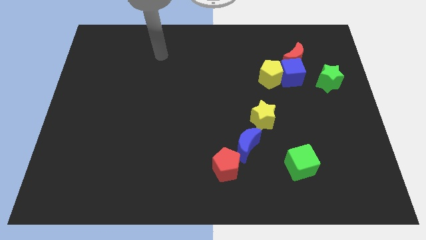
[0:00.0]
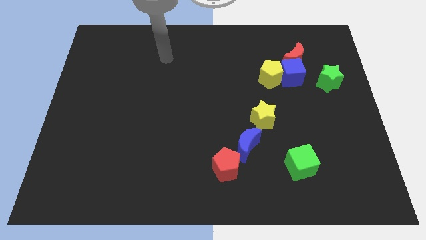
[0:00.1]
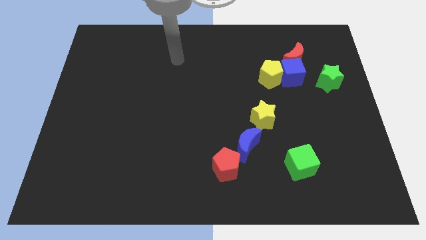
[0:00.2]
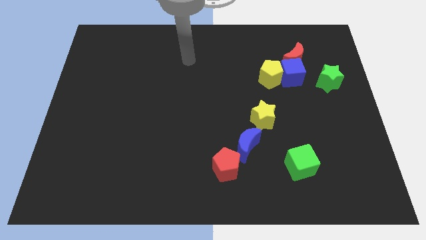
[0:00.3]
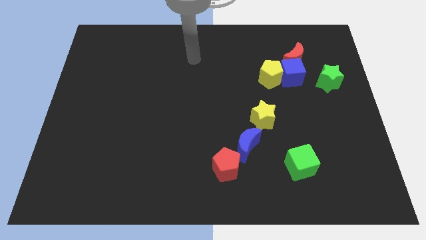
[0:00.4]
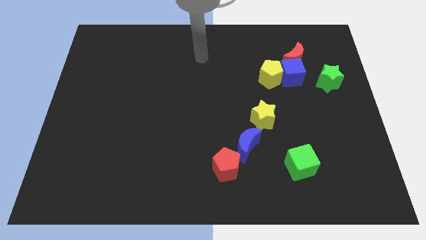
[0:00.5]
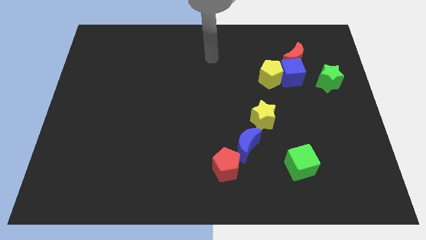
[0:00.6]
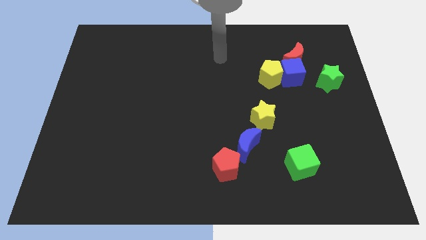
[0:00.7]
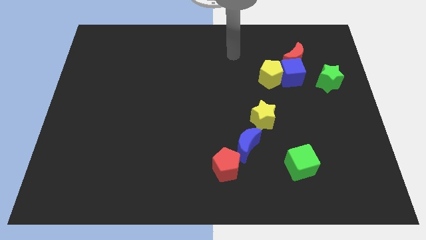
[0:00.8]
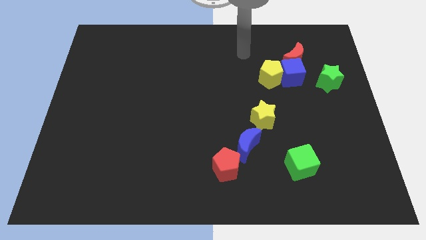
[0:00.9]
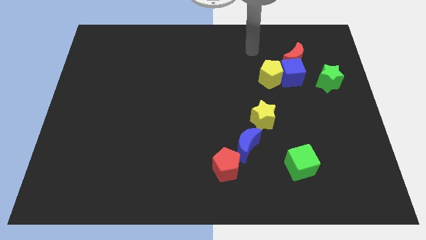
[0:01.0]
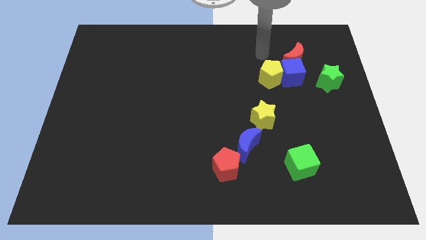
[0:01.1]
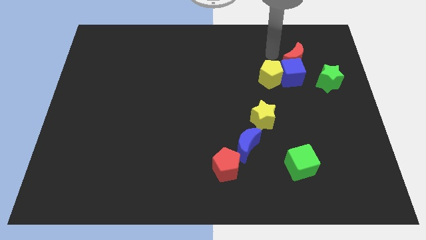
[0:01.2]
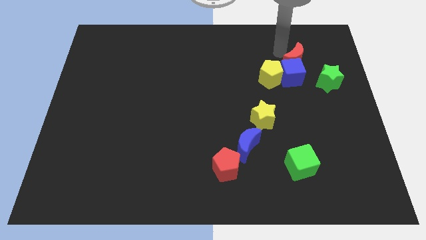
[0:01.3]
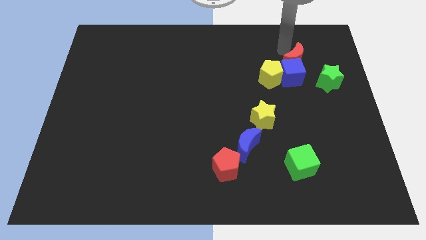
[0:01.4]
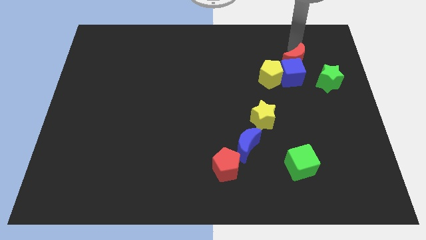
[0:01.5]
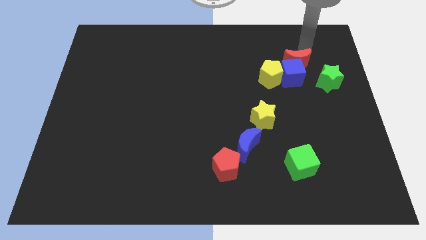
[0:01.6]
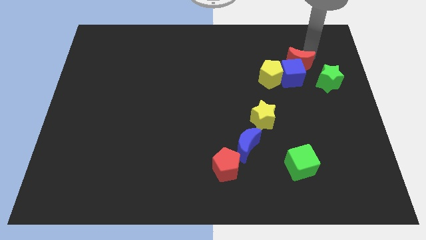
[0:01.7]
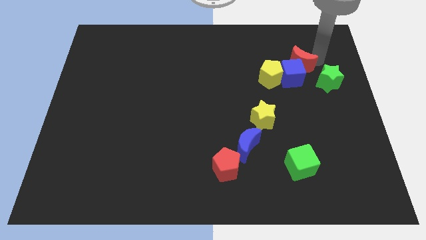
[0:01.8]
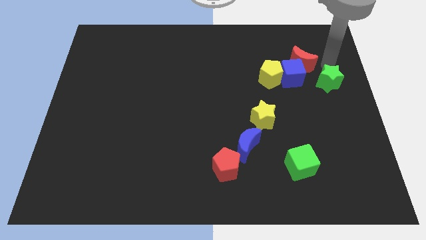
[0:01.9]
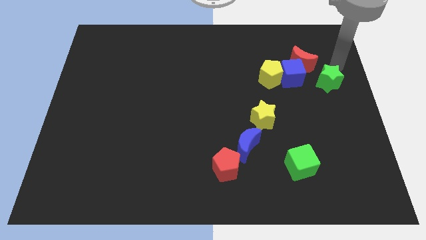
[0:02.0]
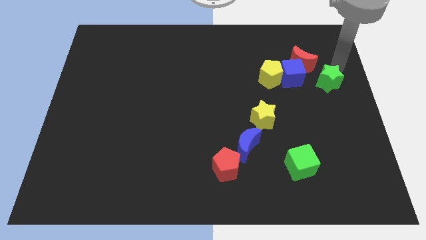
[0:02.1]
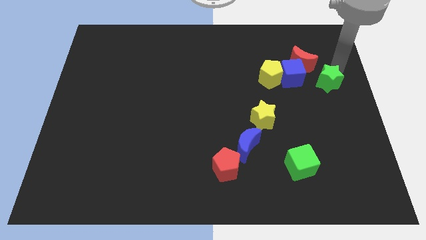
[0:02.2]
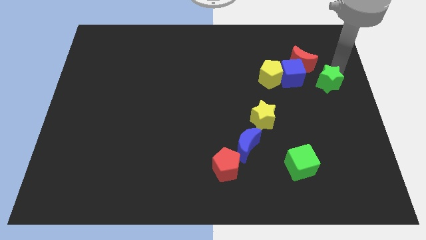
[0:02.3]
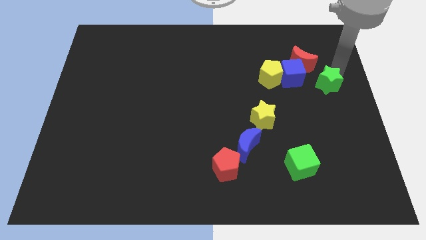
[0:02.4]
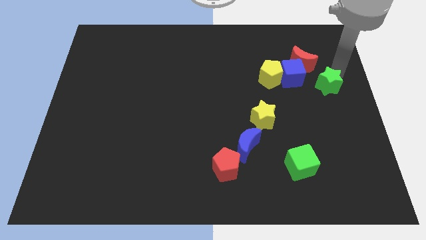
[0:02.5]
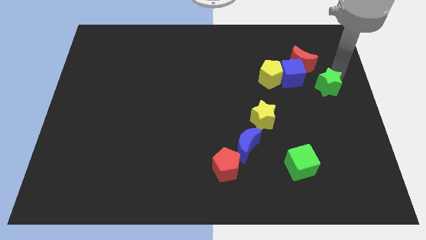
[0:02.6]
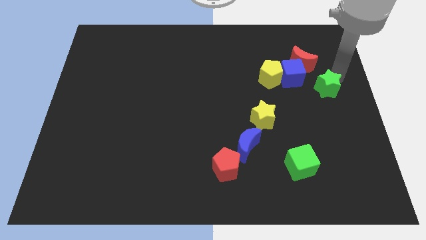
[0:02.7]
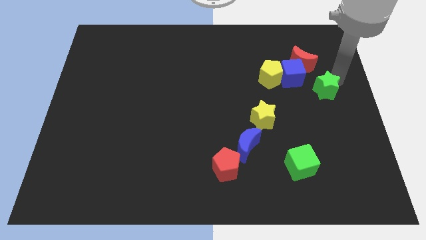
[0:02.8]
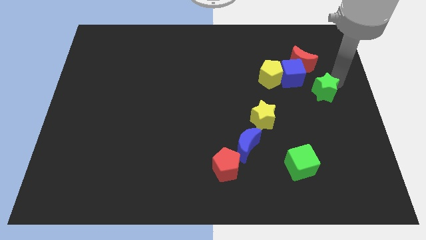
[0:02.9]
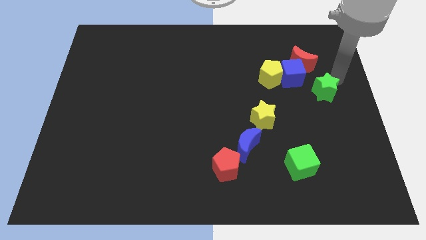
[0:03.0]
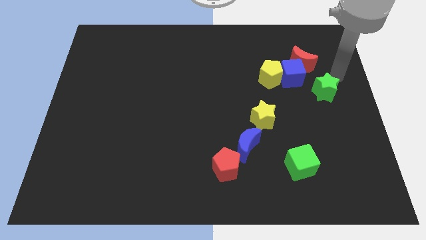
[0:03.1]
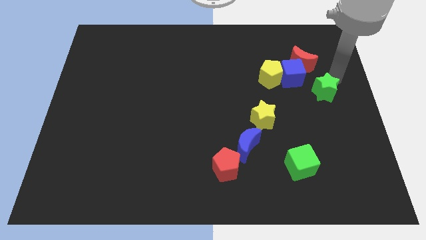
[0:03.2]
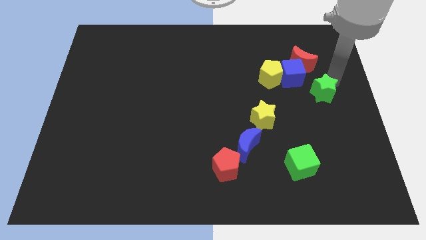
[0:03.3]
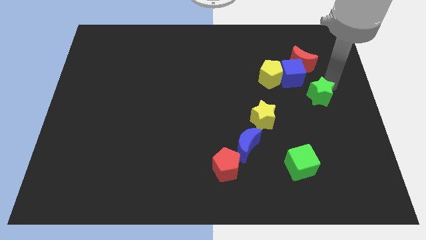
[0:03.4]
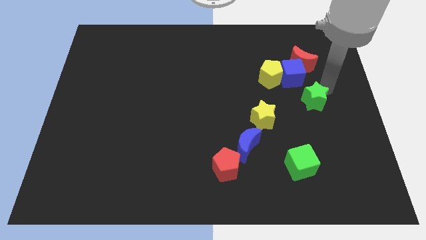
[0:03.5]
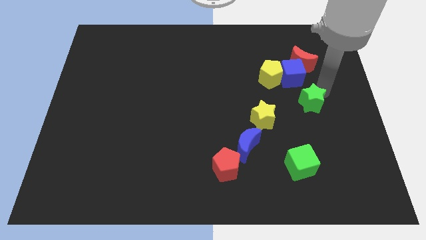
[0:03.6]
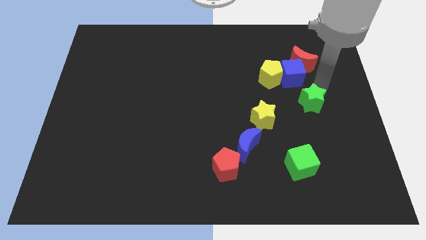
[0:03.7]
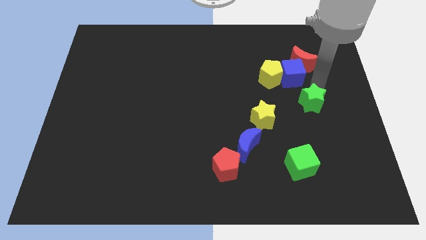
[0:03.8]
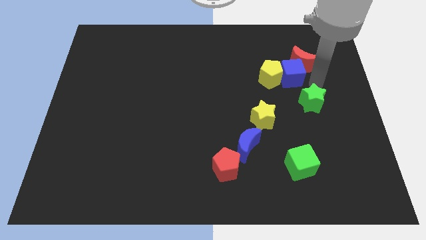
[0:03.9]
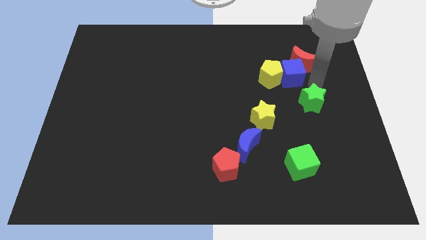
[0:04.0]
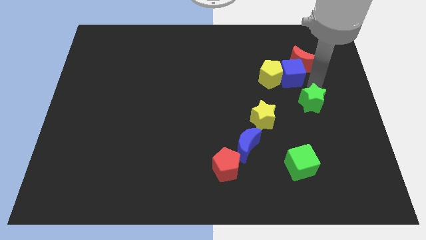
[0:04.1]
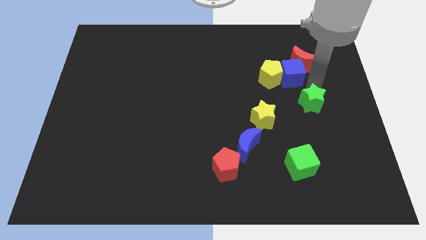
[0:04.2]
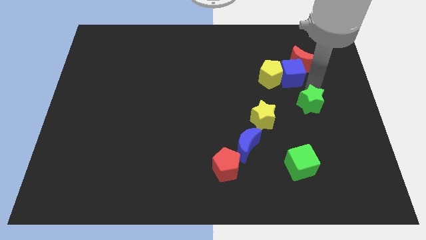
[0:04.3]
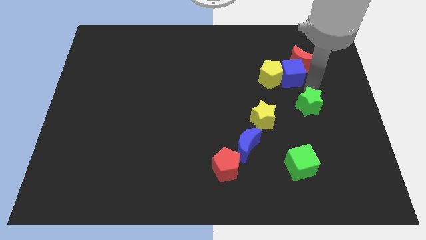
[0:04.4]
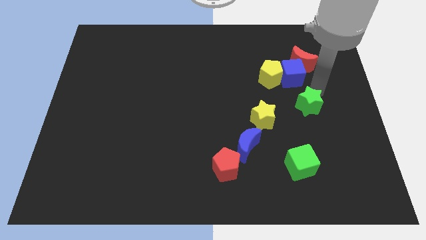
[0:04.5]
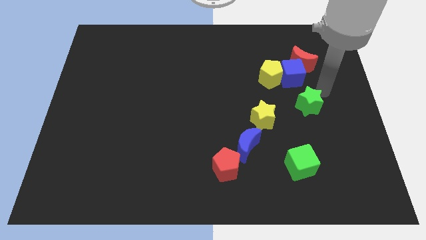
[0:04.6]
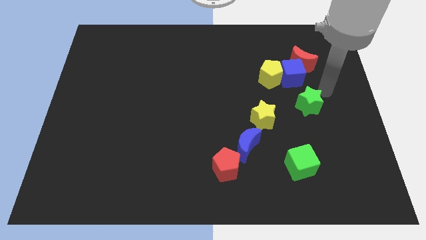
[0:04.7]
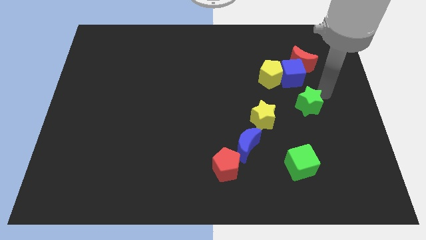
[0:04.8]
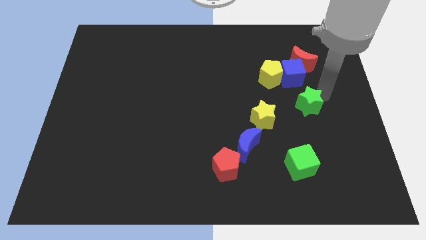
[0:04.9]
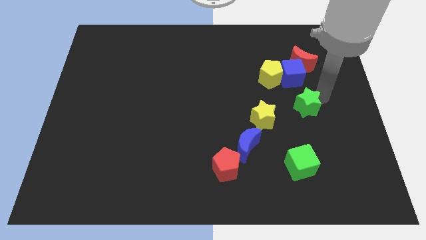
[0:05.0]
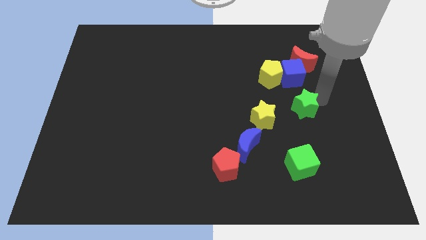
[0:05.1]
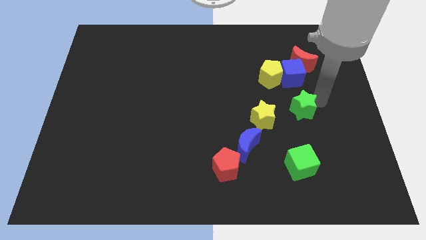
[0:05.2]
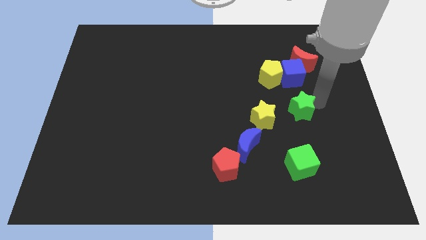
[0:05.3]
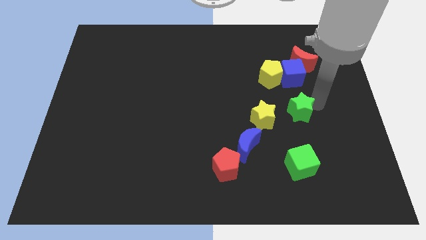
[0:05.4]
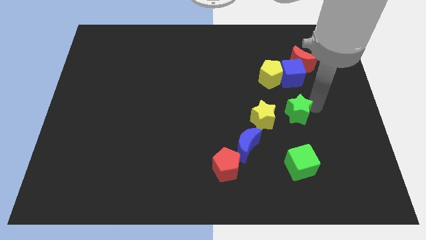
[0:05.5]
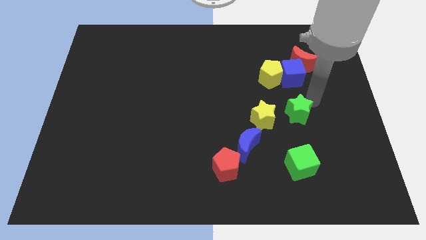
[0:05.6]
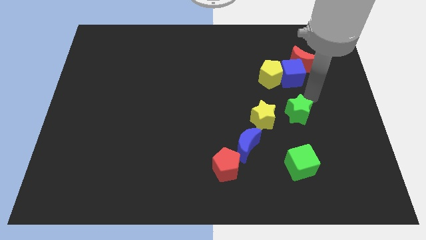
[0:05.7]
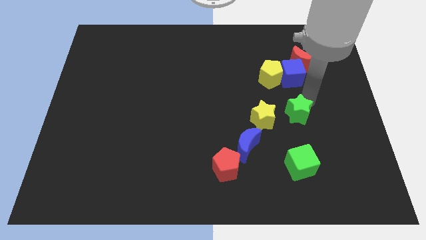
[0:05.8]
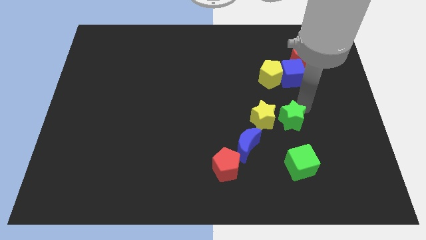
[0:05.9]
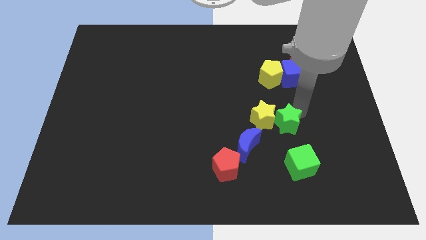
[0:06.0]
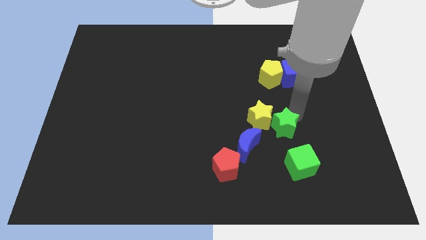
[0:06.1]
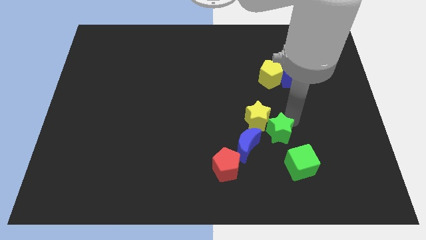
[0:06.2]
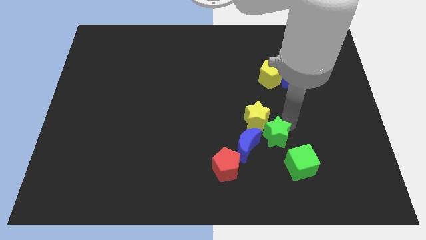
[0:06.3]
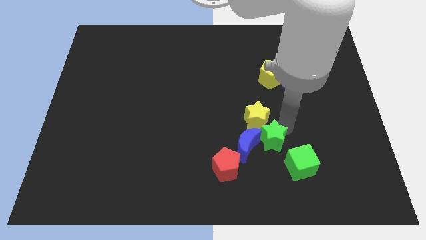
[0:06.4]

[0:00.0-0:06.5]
slide the green star towards the blue moon
